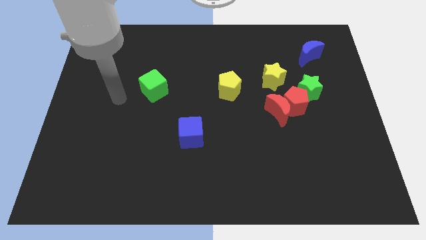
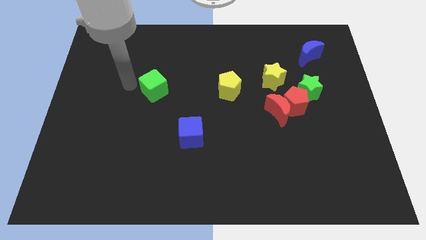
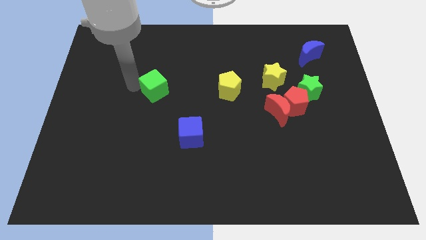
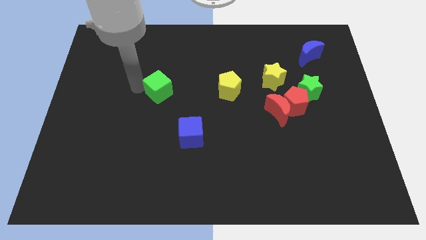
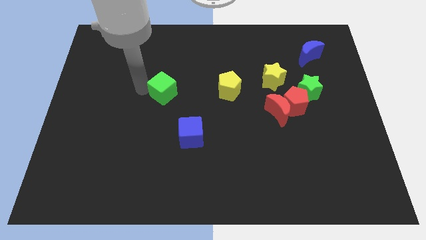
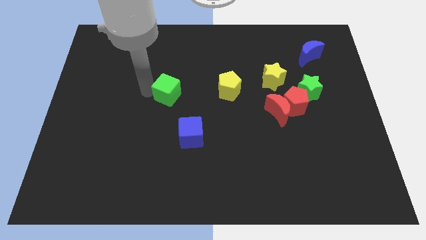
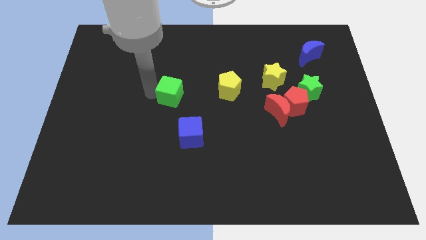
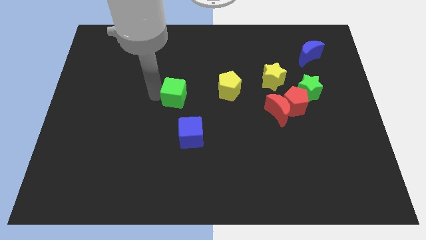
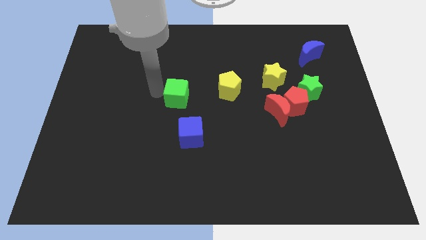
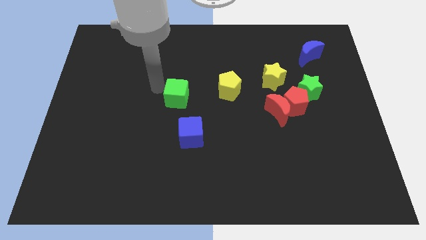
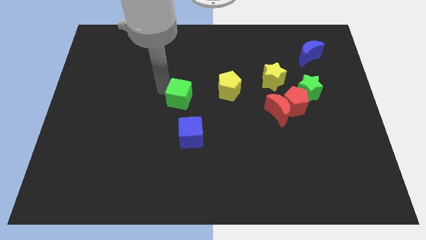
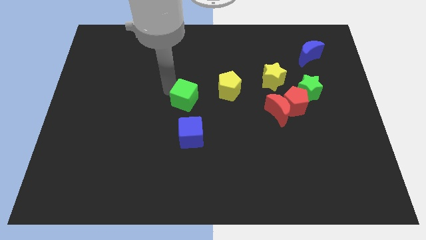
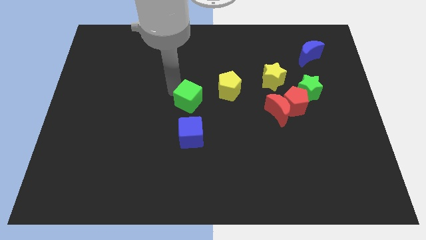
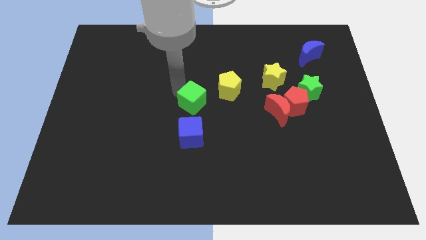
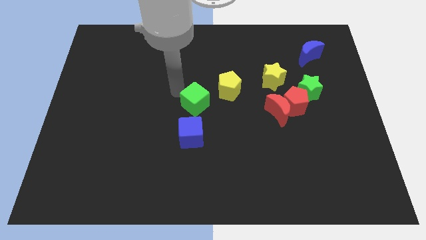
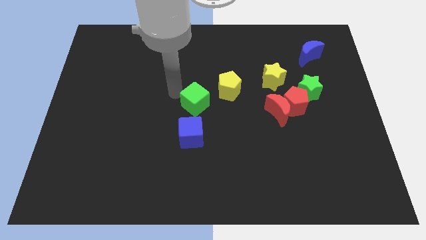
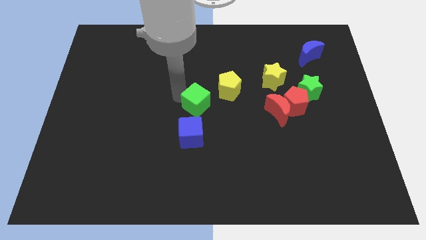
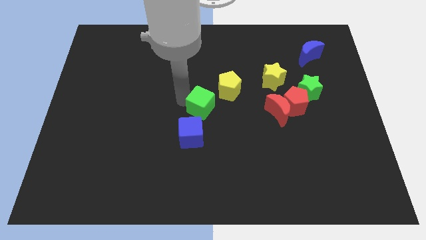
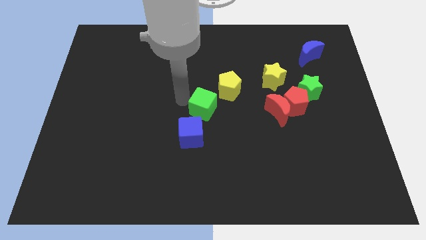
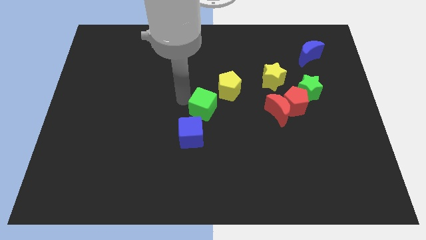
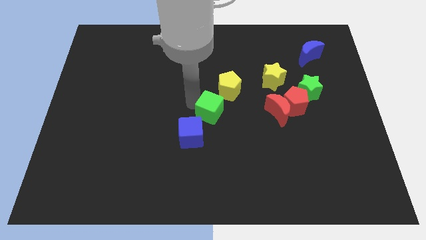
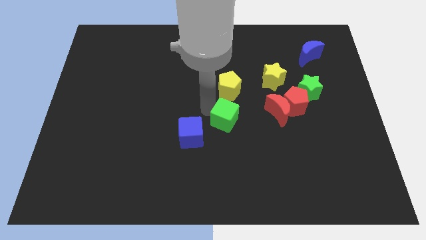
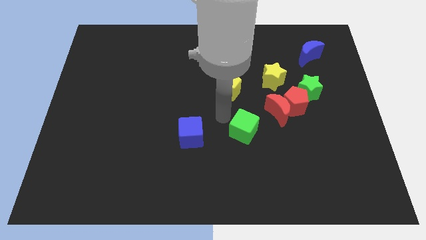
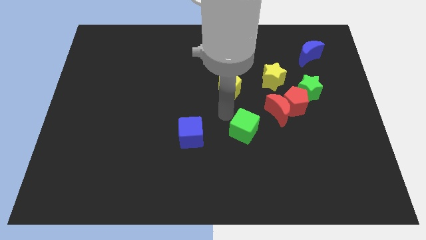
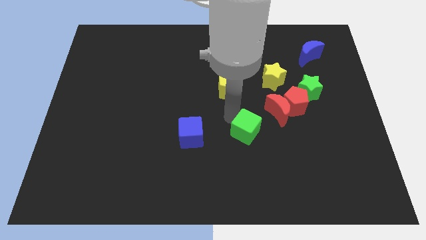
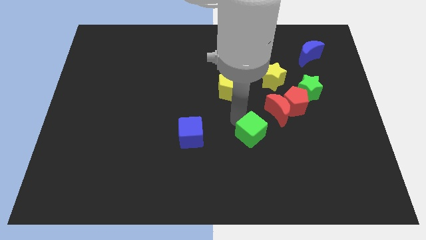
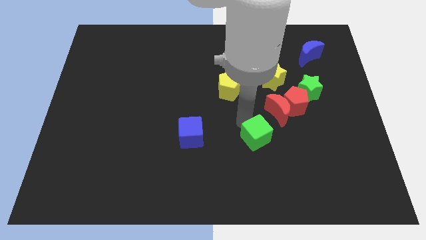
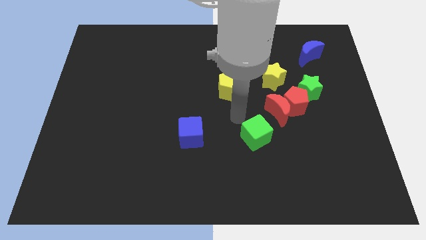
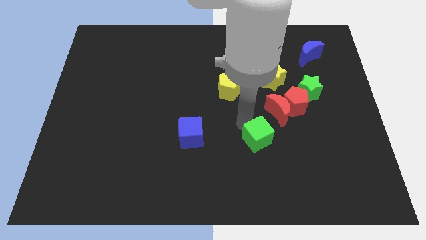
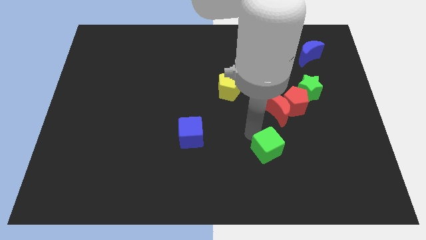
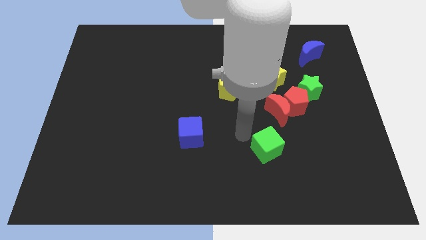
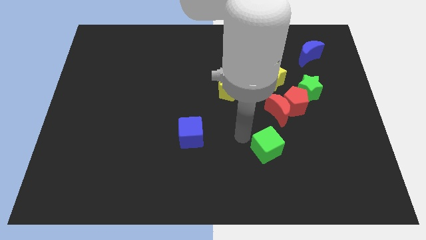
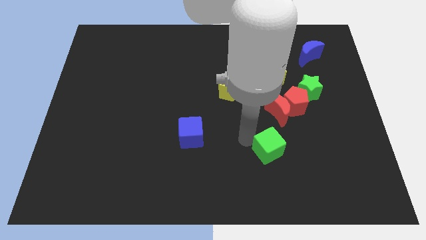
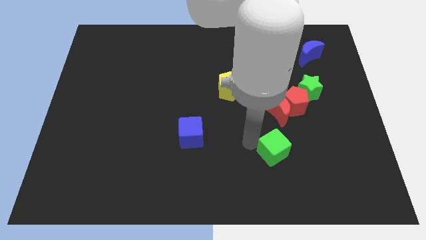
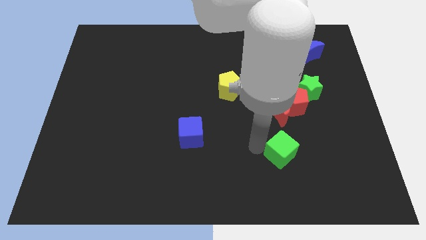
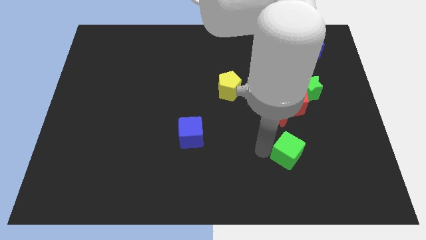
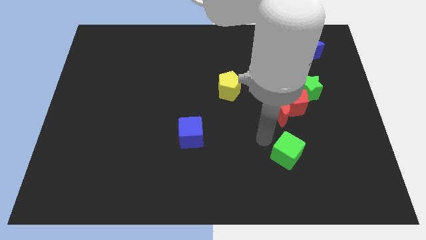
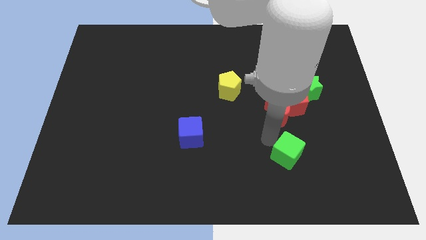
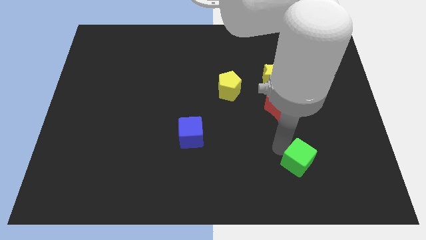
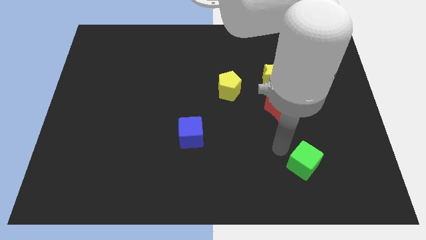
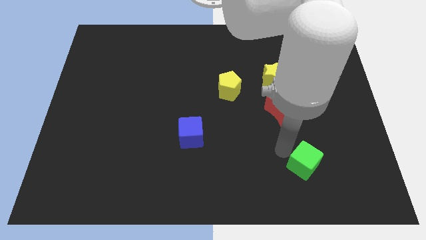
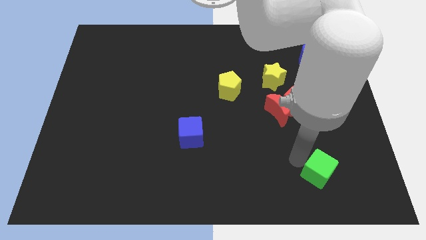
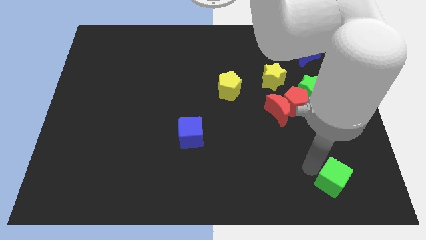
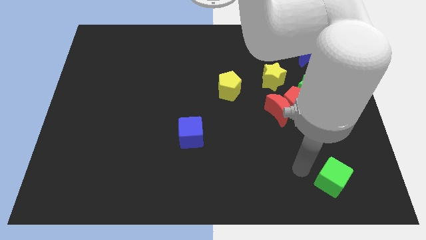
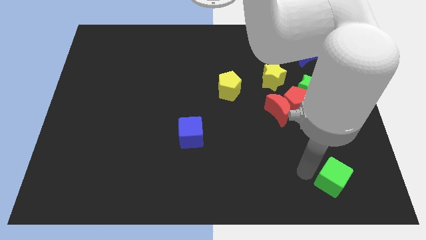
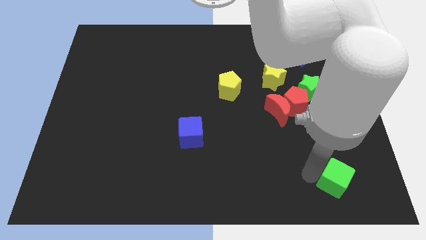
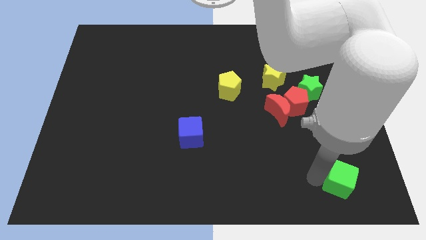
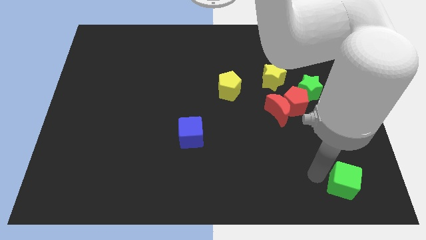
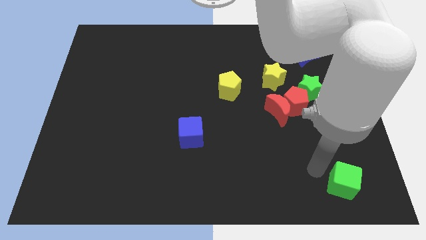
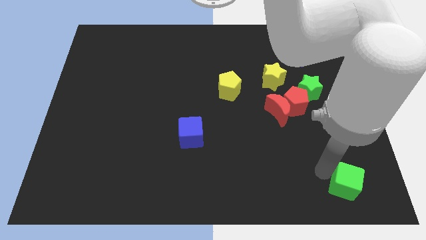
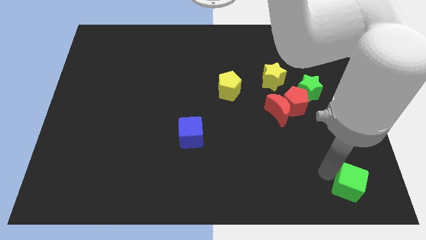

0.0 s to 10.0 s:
push the green cube to the lower right corner

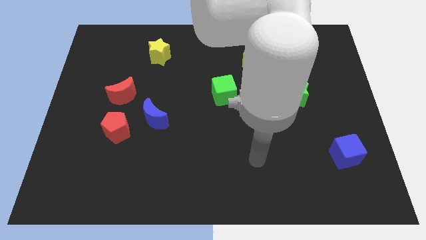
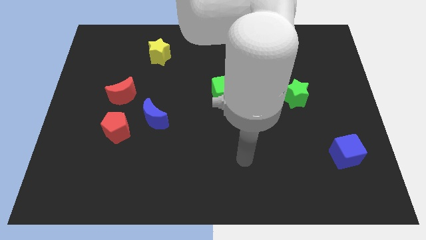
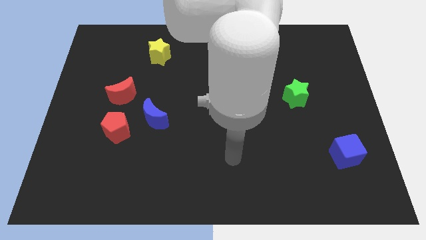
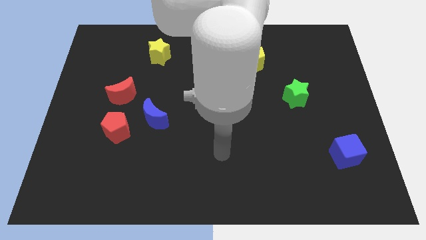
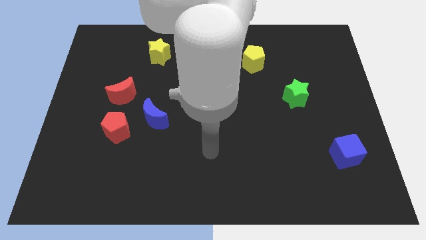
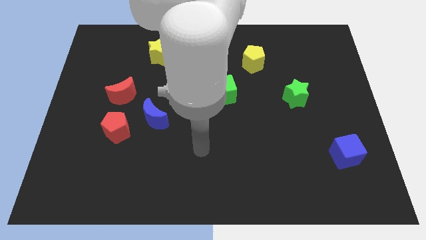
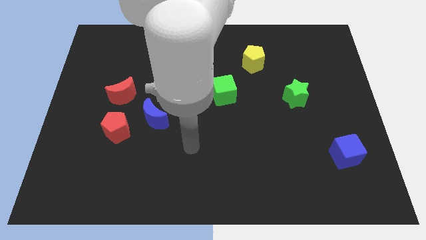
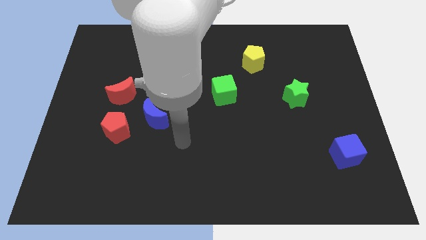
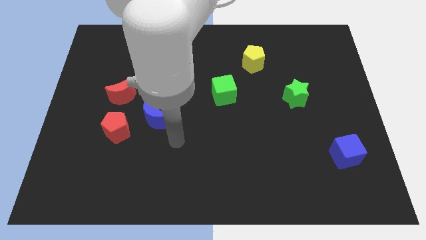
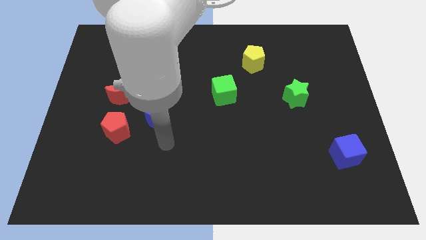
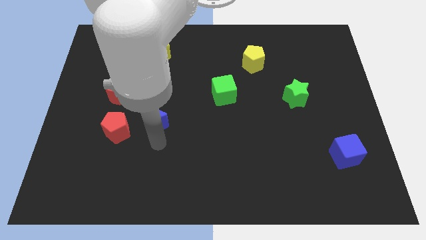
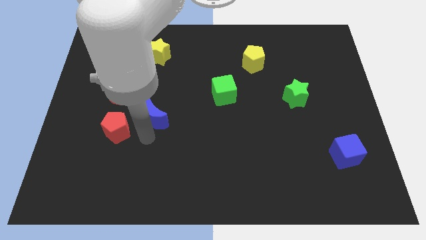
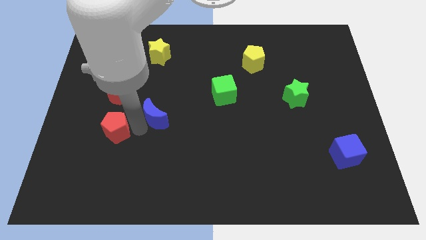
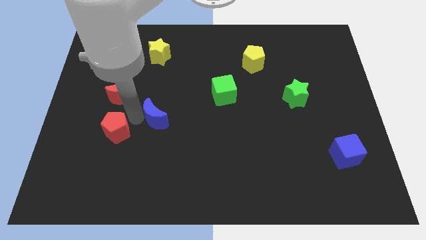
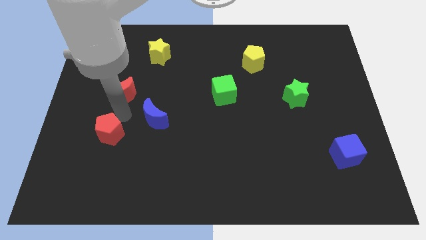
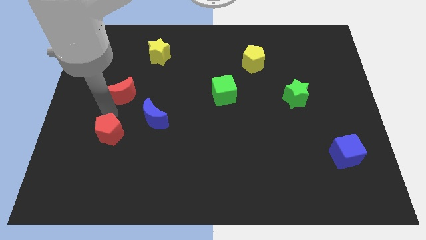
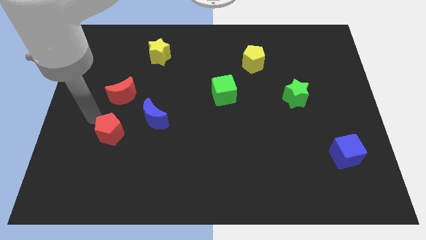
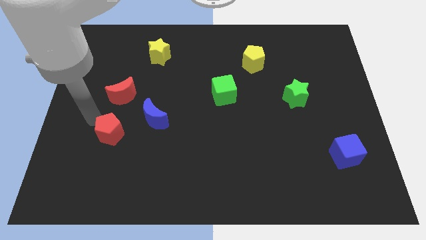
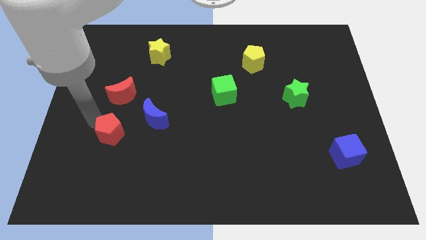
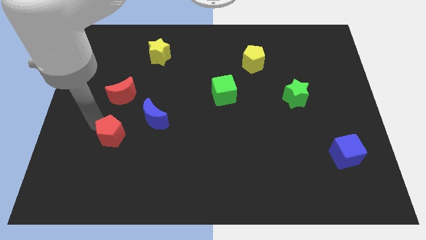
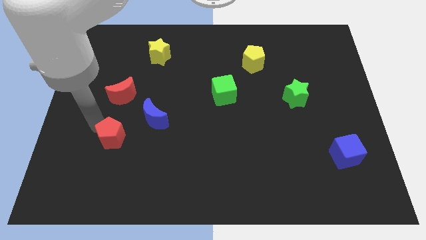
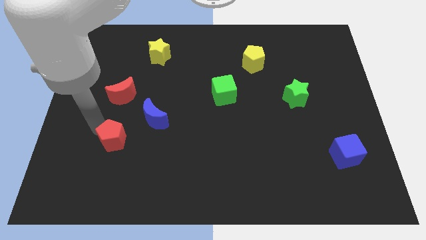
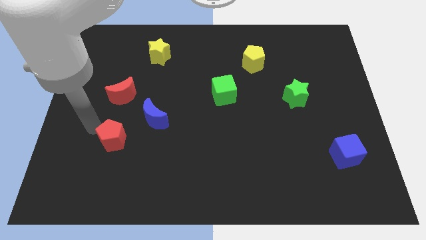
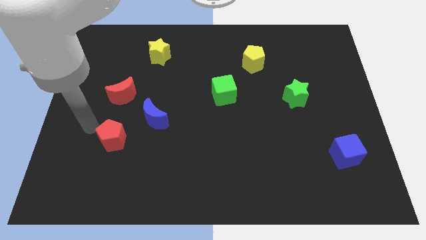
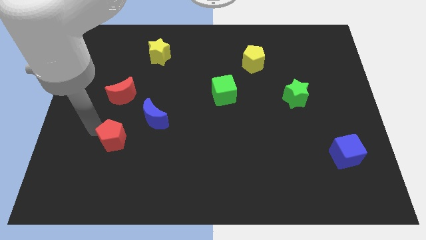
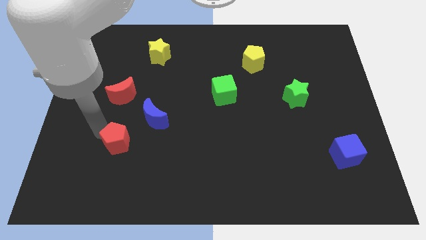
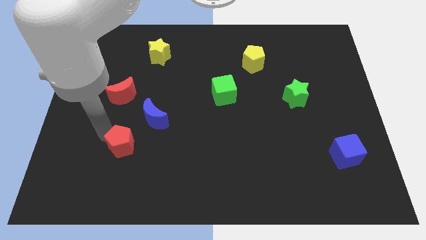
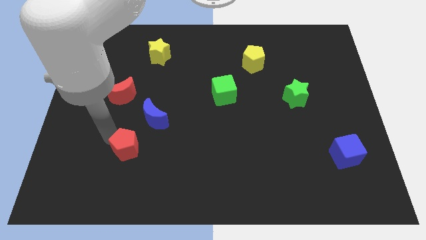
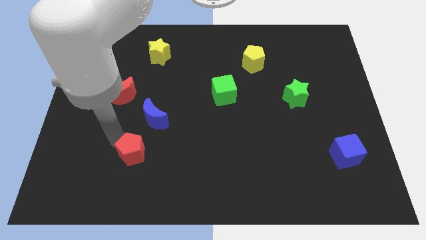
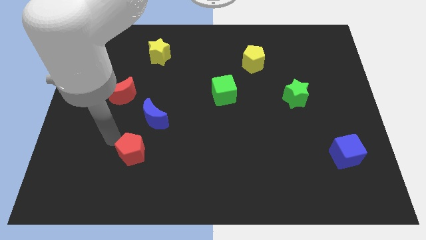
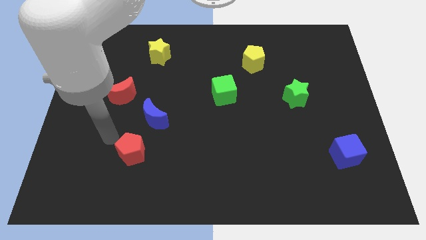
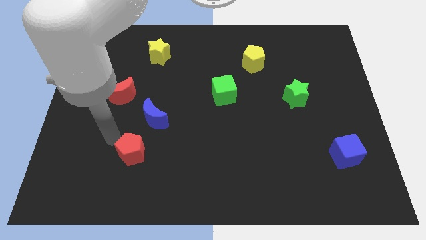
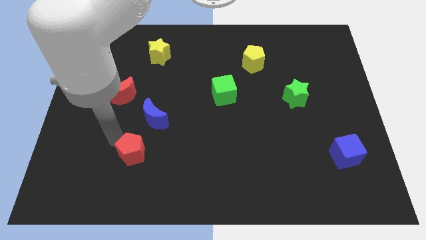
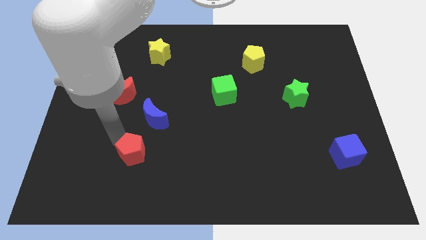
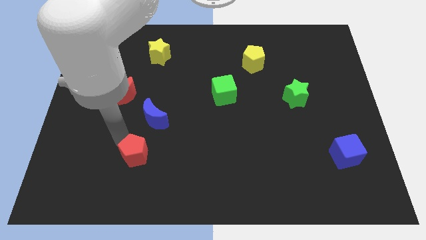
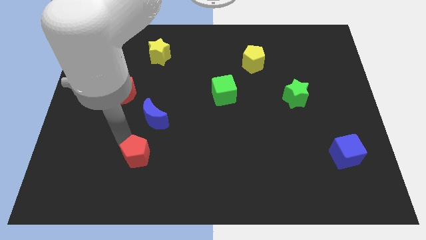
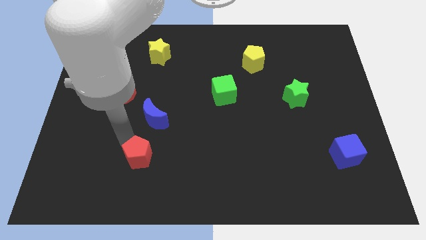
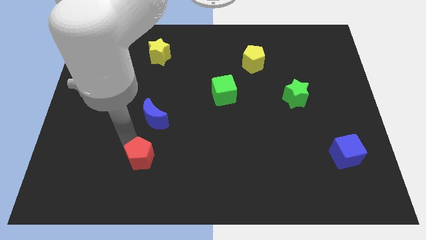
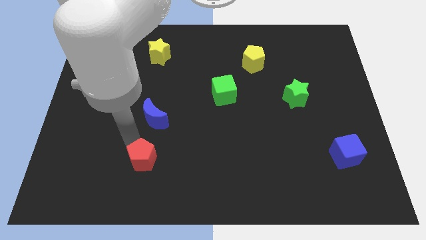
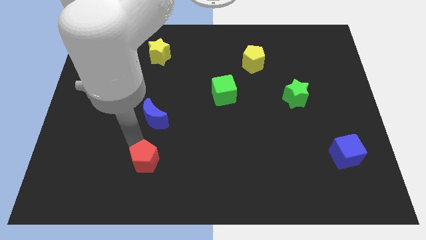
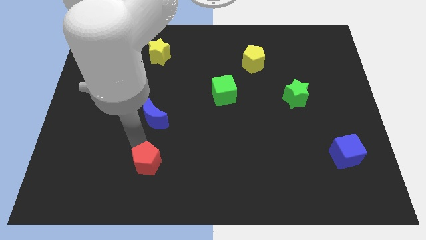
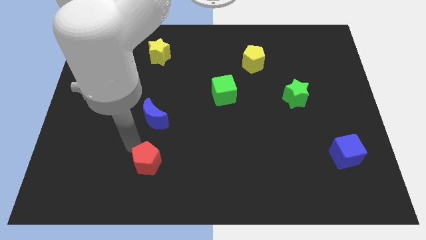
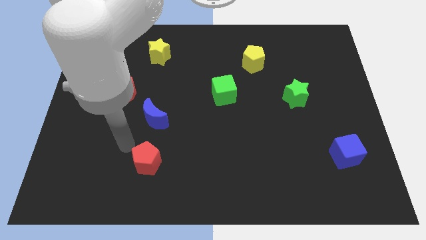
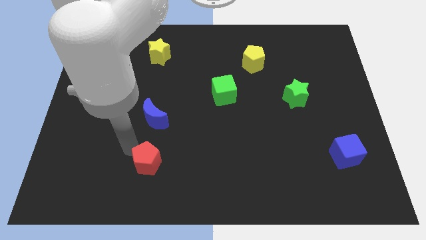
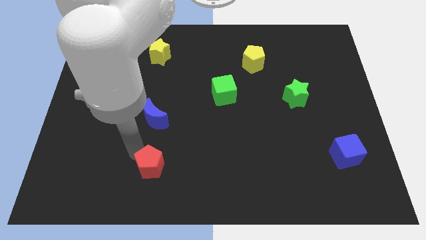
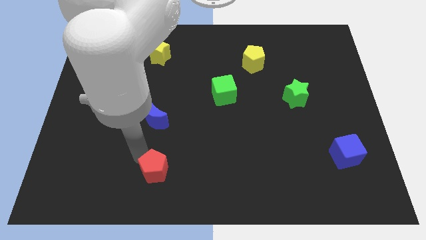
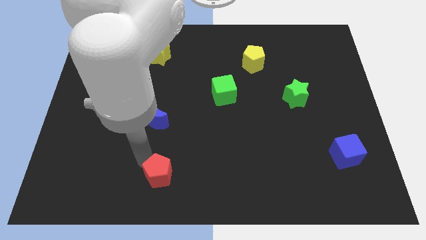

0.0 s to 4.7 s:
put the red pentagon to the bottom
